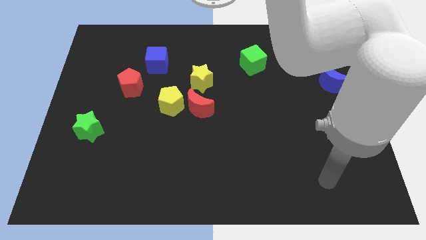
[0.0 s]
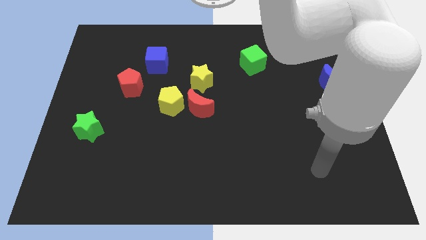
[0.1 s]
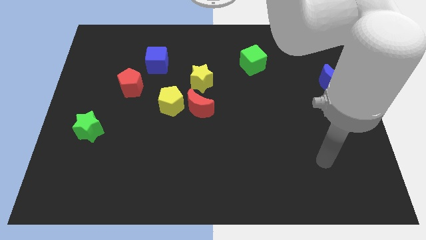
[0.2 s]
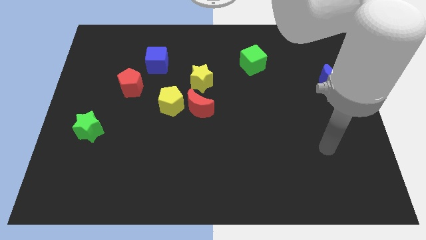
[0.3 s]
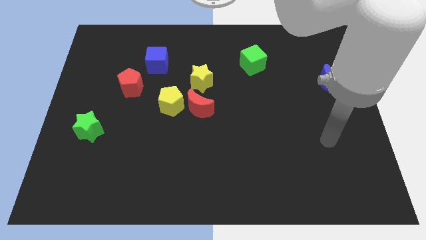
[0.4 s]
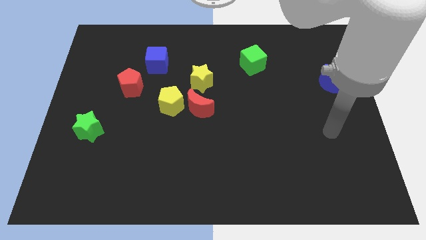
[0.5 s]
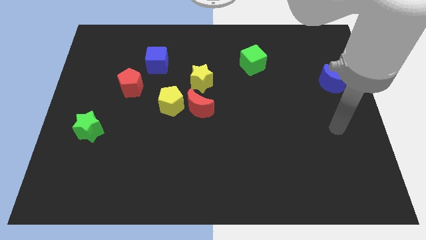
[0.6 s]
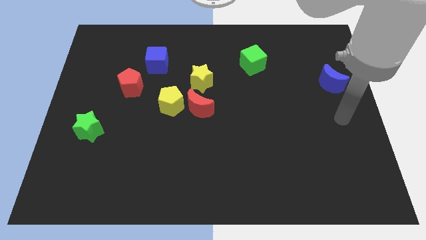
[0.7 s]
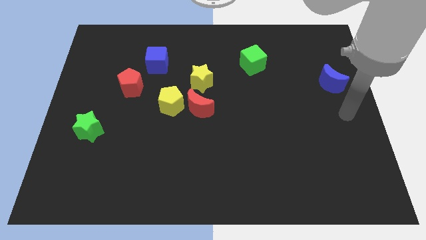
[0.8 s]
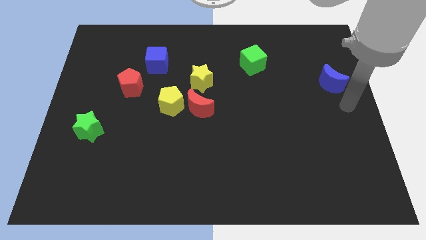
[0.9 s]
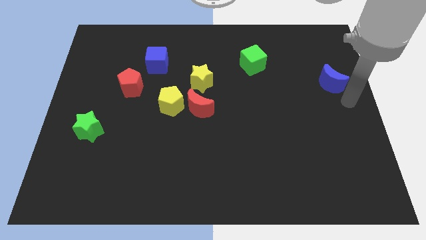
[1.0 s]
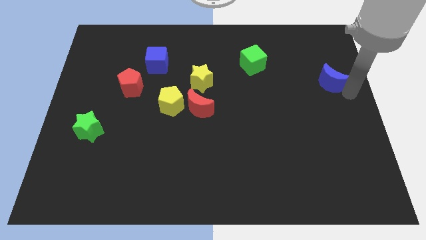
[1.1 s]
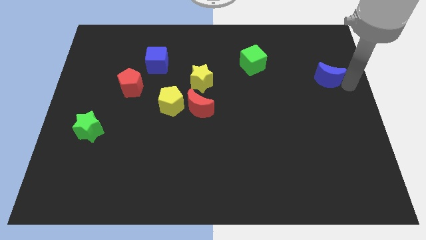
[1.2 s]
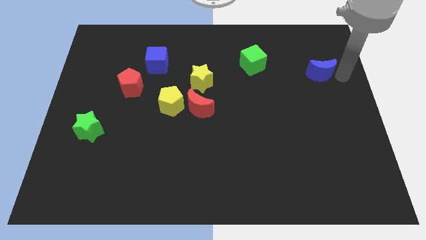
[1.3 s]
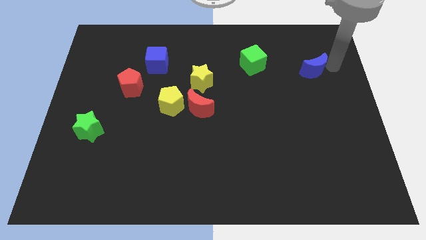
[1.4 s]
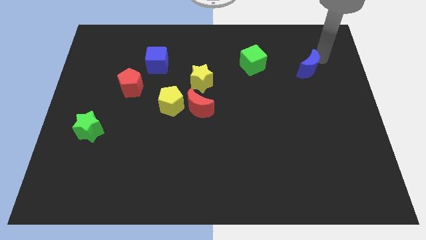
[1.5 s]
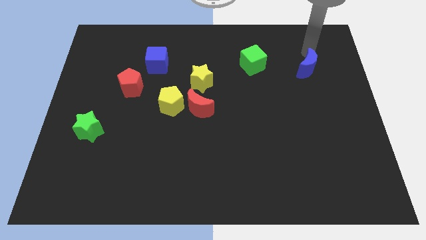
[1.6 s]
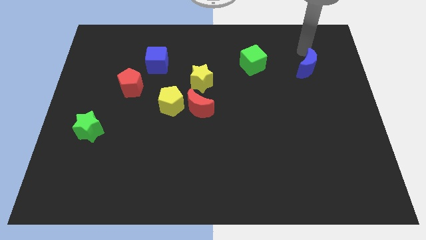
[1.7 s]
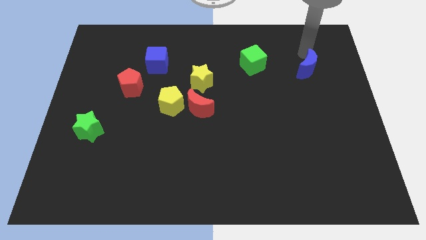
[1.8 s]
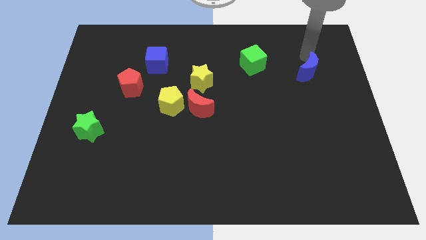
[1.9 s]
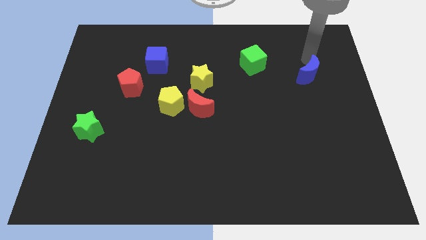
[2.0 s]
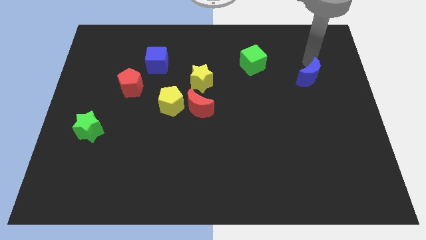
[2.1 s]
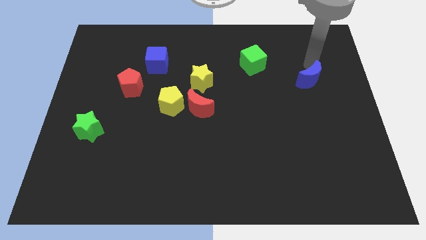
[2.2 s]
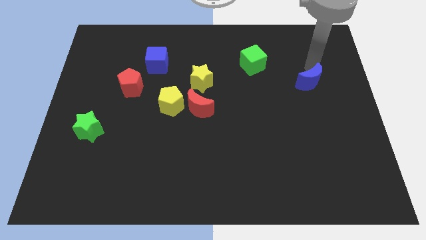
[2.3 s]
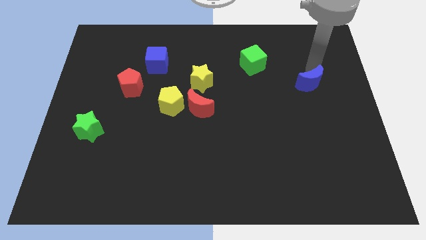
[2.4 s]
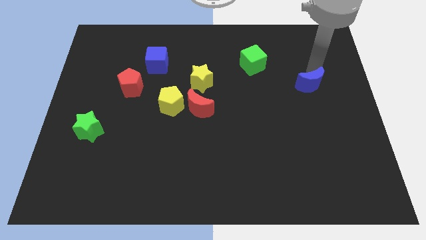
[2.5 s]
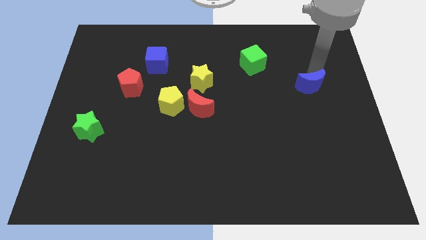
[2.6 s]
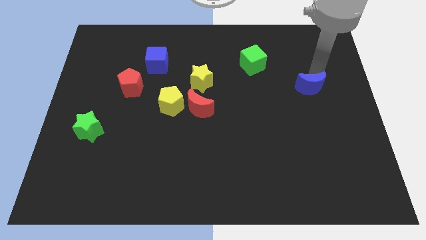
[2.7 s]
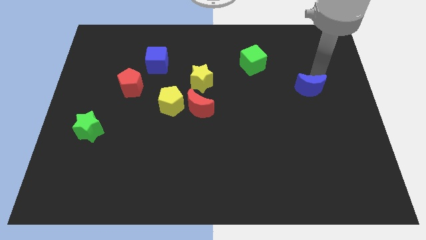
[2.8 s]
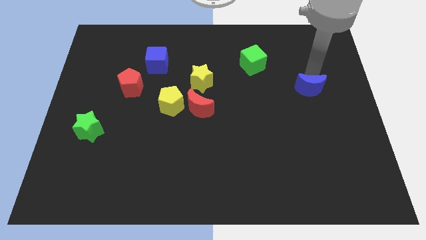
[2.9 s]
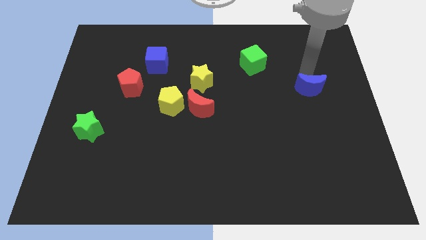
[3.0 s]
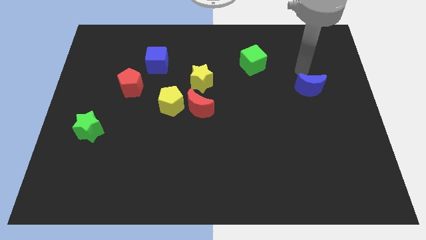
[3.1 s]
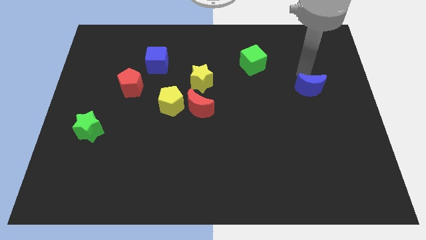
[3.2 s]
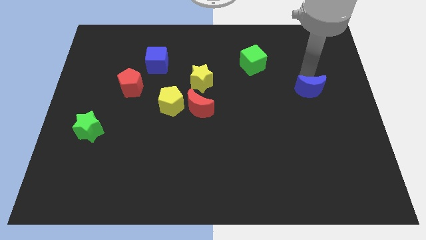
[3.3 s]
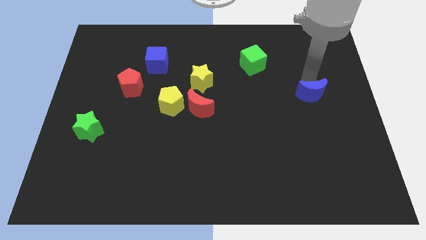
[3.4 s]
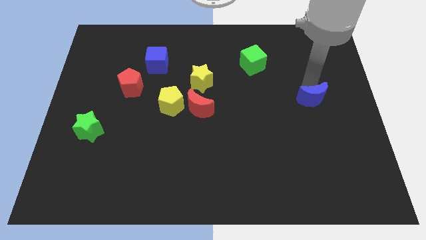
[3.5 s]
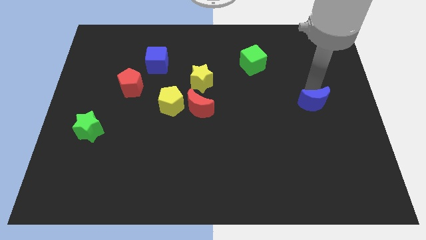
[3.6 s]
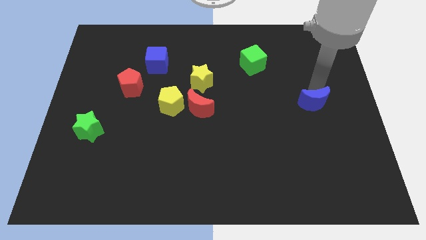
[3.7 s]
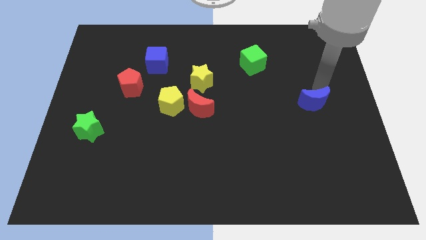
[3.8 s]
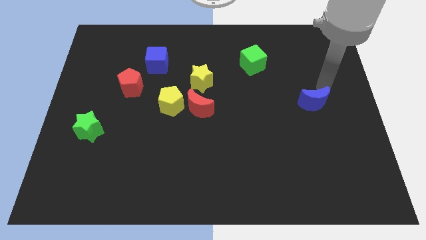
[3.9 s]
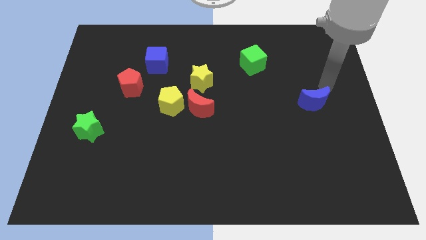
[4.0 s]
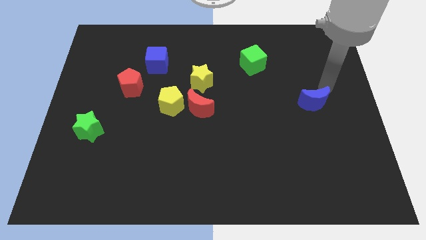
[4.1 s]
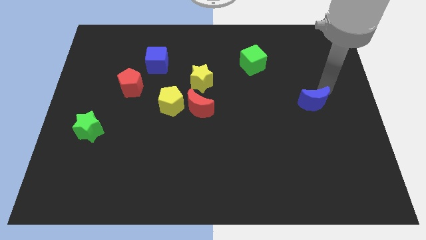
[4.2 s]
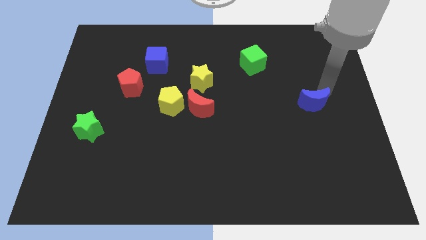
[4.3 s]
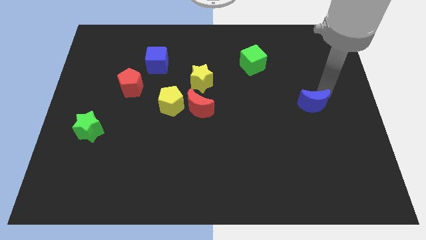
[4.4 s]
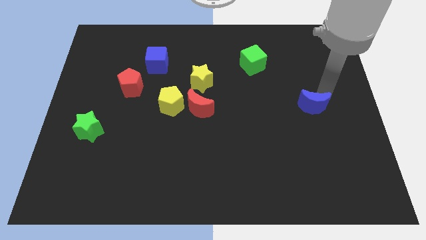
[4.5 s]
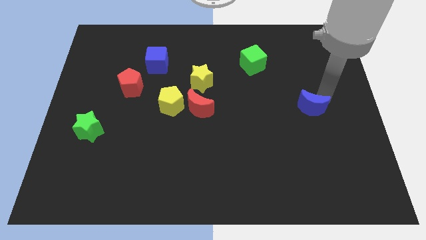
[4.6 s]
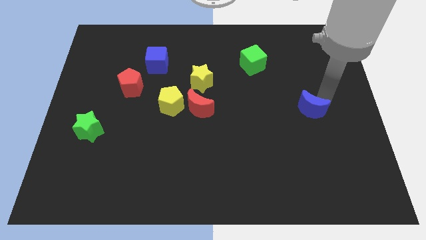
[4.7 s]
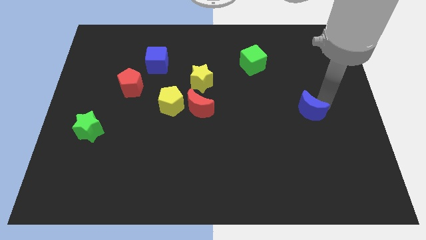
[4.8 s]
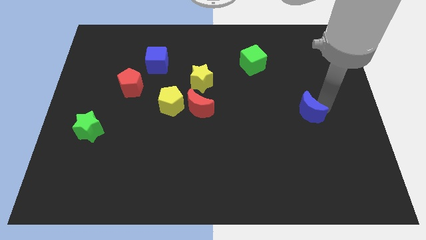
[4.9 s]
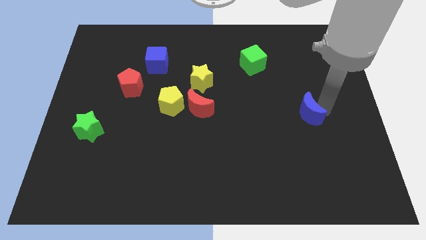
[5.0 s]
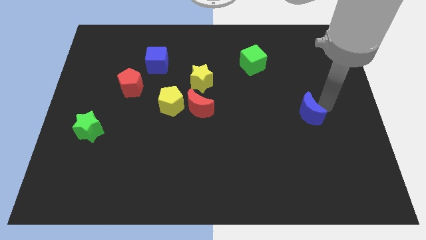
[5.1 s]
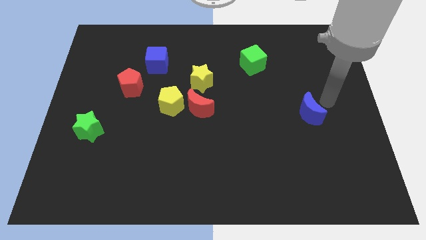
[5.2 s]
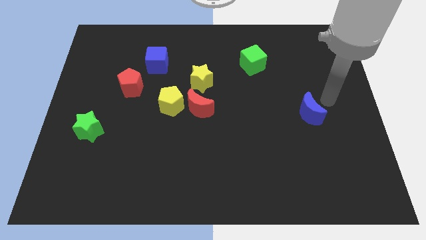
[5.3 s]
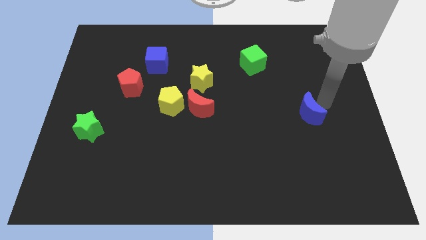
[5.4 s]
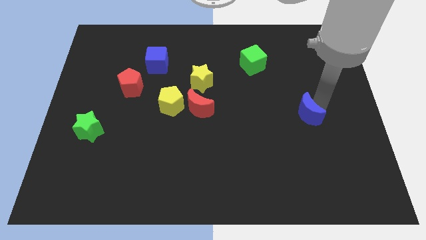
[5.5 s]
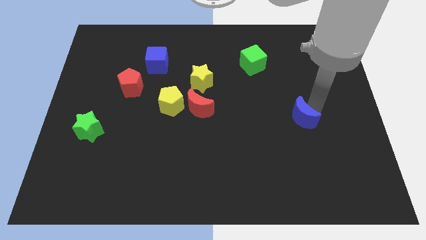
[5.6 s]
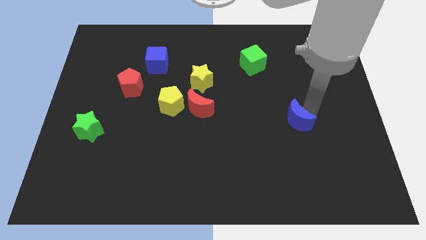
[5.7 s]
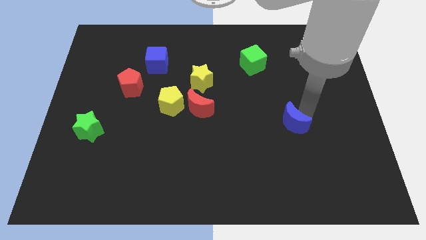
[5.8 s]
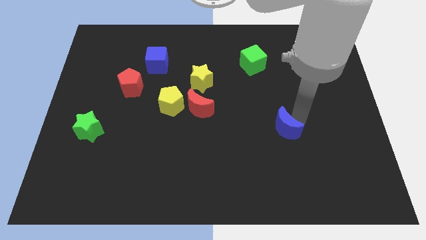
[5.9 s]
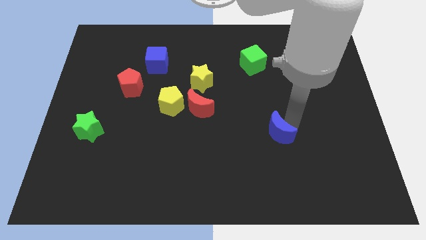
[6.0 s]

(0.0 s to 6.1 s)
move the blue moon down and left

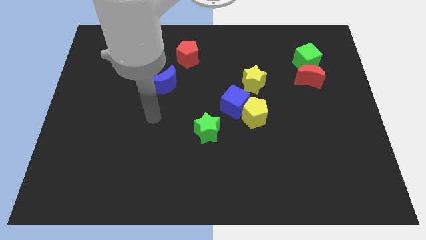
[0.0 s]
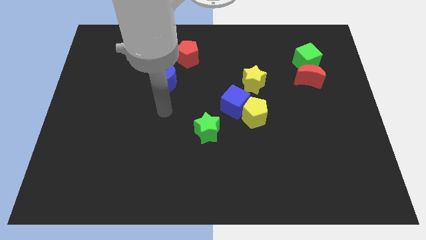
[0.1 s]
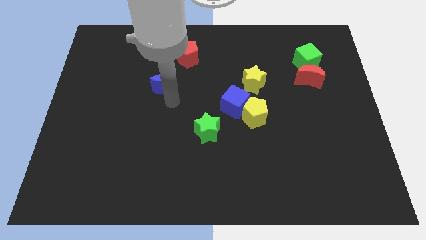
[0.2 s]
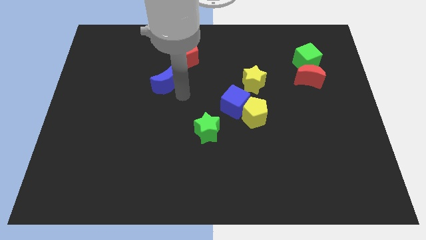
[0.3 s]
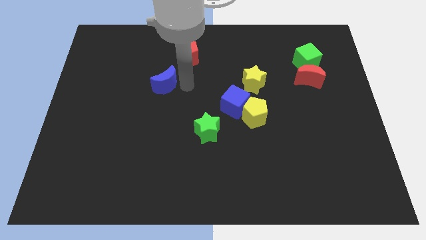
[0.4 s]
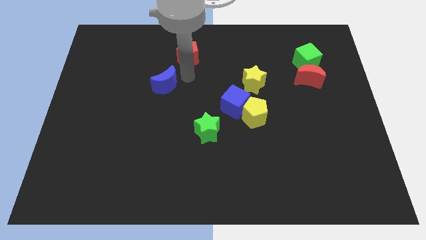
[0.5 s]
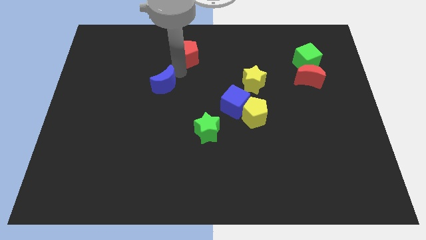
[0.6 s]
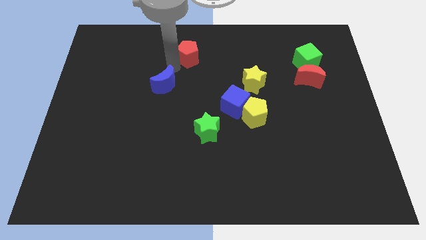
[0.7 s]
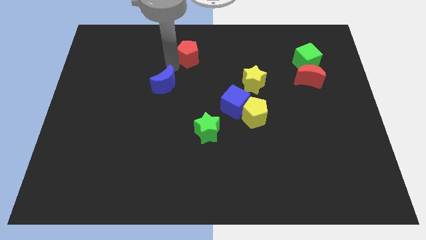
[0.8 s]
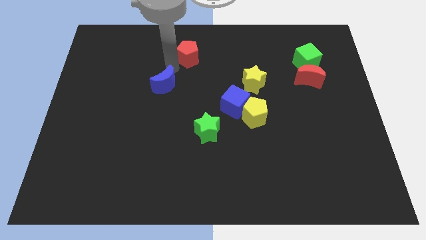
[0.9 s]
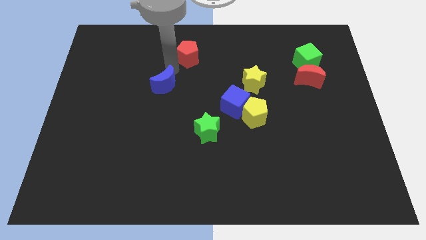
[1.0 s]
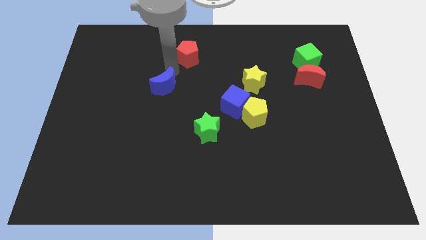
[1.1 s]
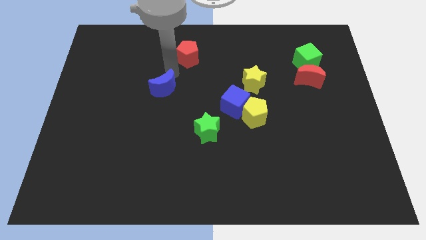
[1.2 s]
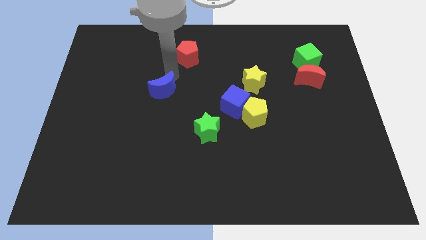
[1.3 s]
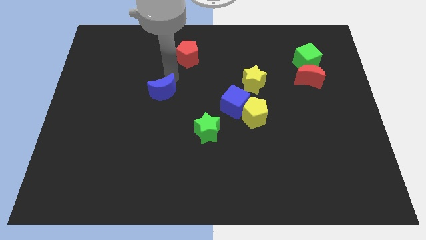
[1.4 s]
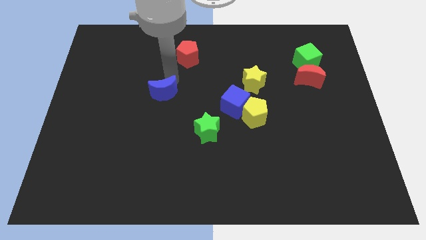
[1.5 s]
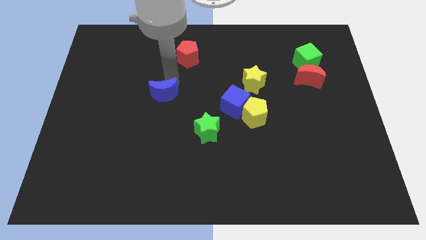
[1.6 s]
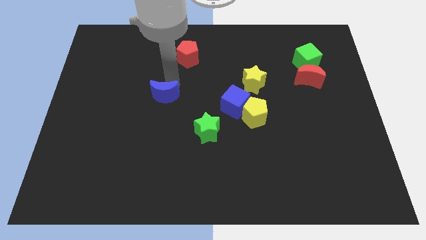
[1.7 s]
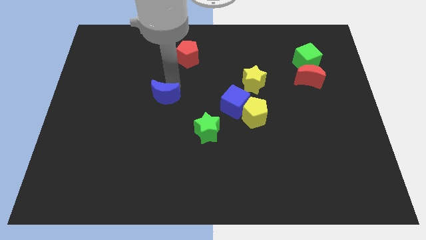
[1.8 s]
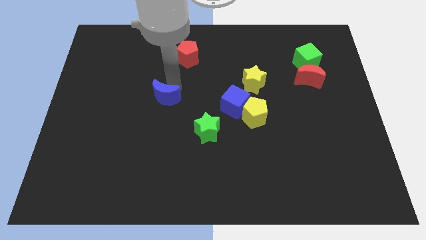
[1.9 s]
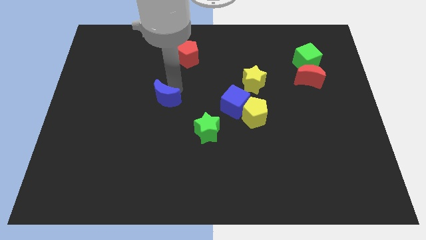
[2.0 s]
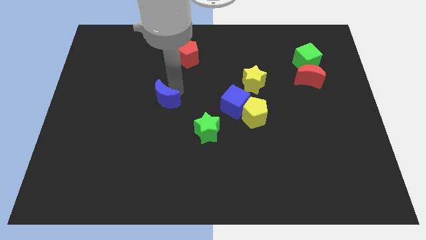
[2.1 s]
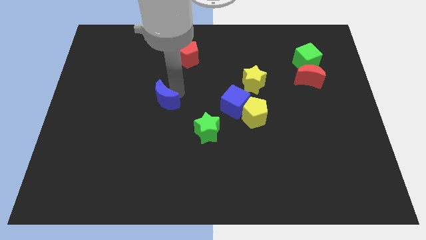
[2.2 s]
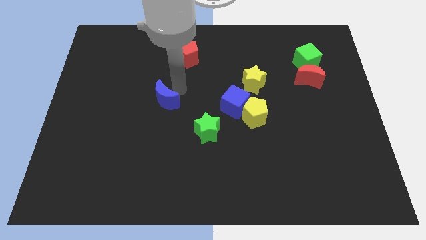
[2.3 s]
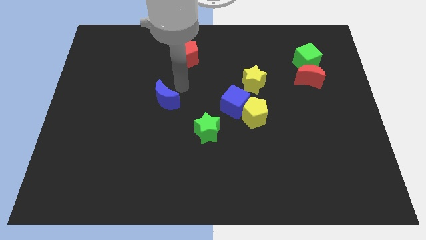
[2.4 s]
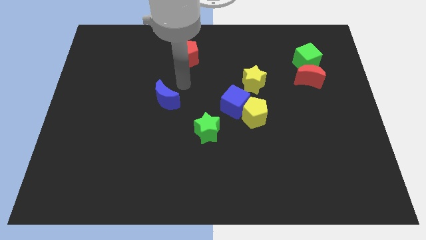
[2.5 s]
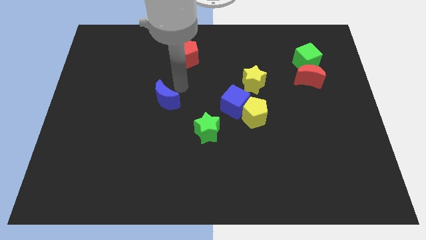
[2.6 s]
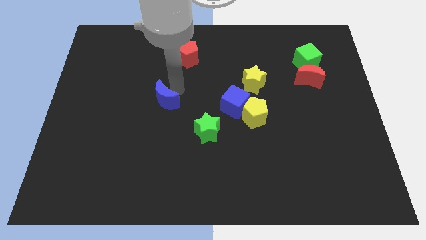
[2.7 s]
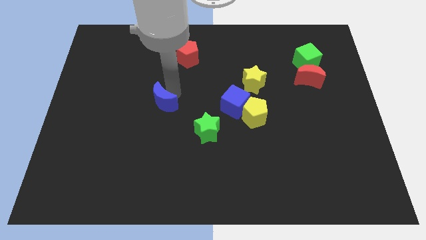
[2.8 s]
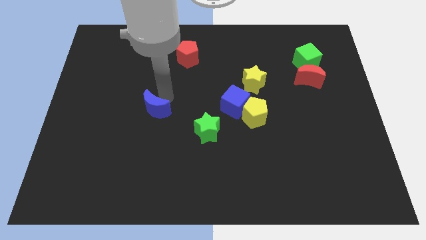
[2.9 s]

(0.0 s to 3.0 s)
slightly push the blue moon down
